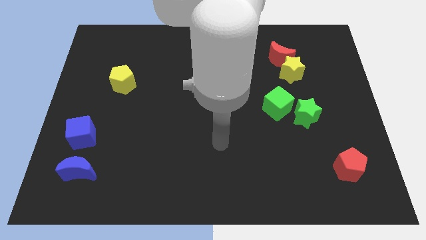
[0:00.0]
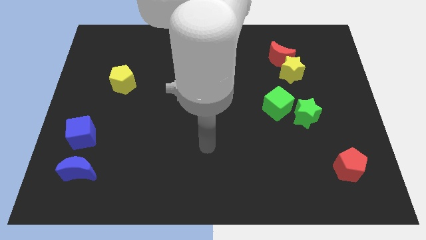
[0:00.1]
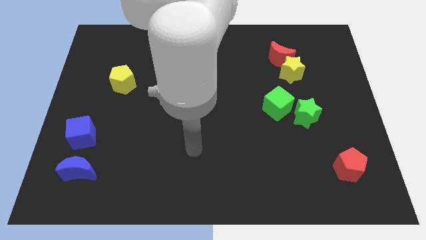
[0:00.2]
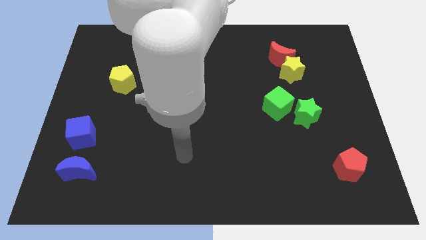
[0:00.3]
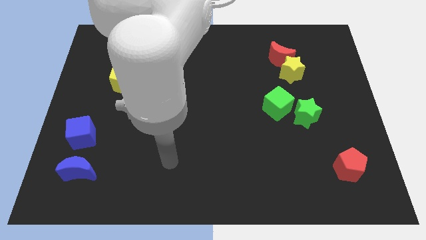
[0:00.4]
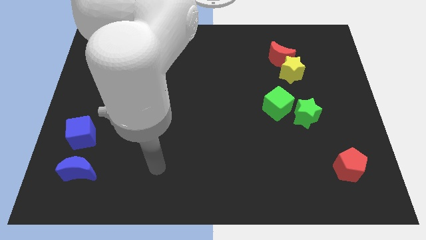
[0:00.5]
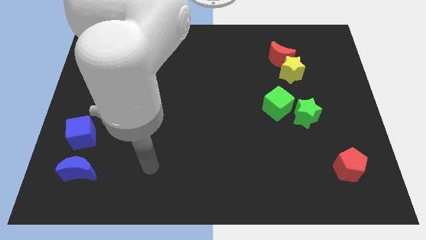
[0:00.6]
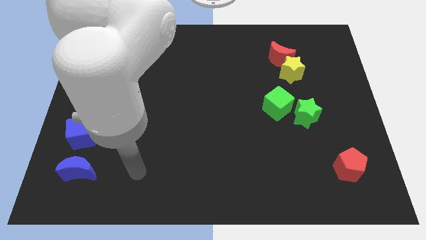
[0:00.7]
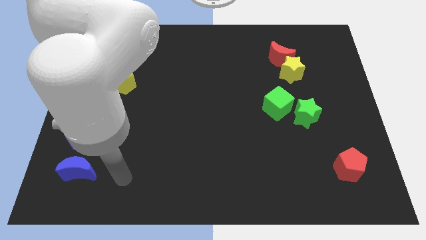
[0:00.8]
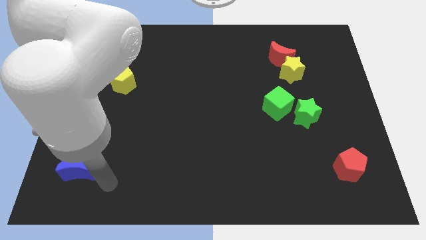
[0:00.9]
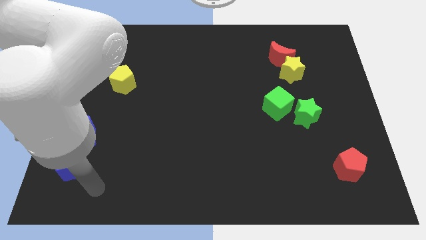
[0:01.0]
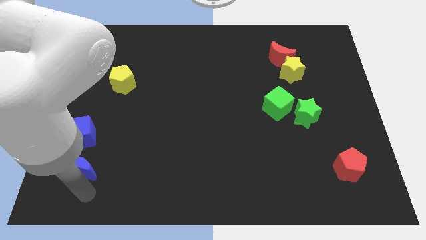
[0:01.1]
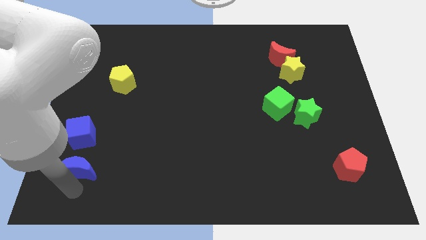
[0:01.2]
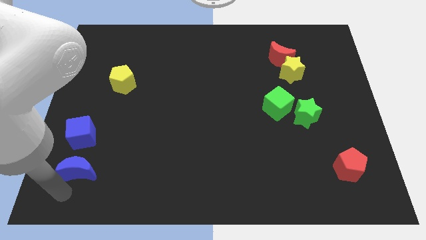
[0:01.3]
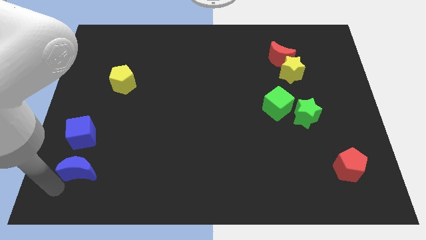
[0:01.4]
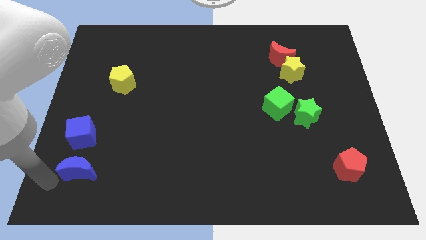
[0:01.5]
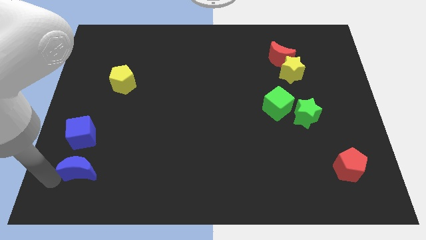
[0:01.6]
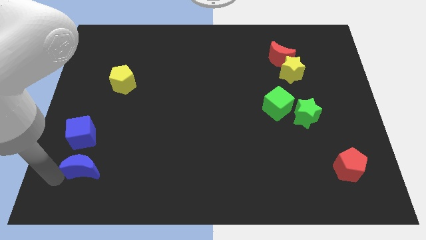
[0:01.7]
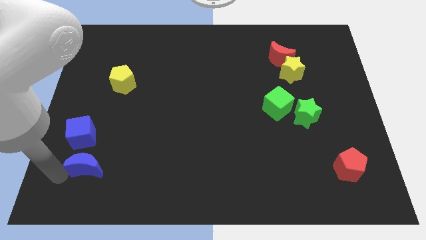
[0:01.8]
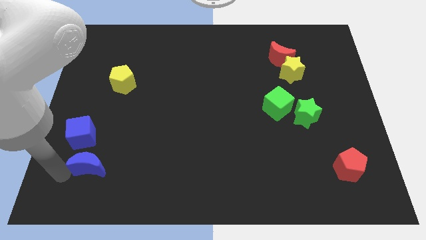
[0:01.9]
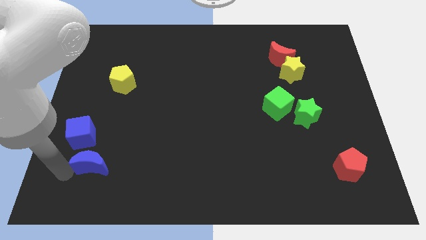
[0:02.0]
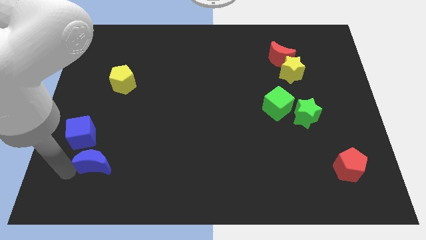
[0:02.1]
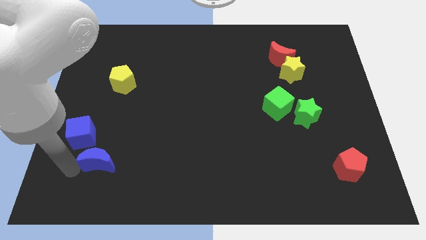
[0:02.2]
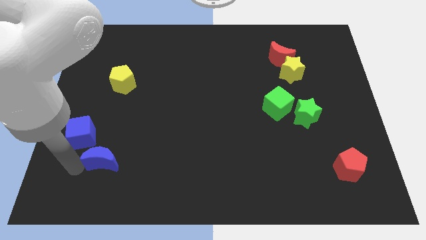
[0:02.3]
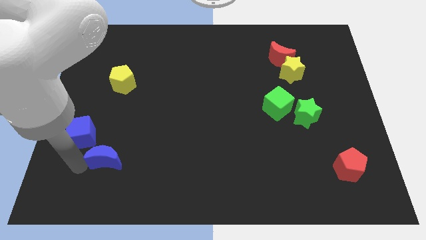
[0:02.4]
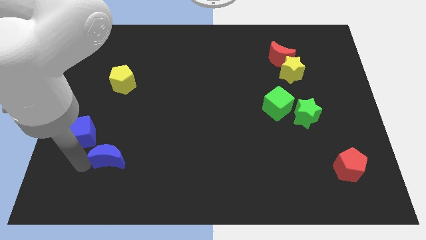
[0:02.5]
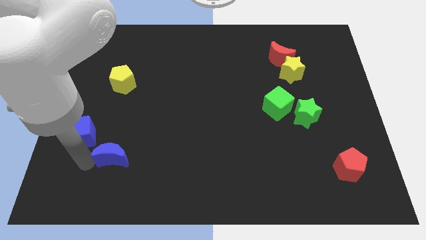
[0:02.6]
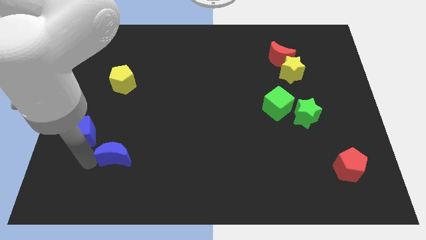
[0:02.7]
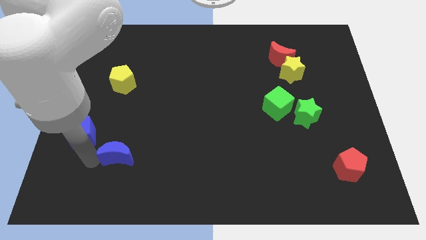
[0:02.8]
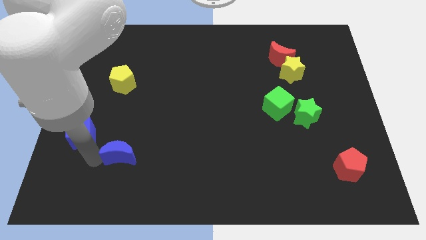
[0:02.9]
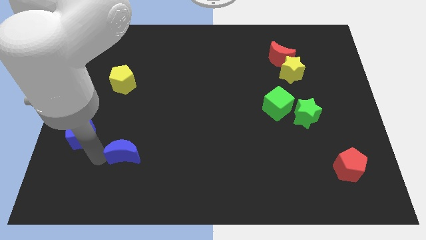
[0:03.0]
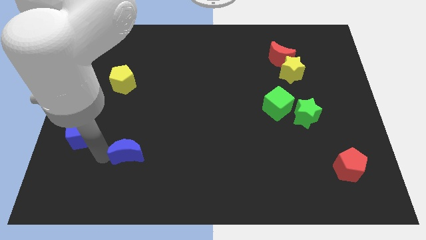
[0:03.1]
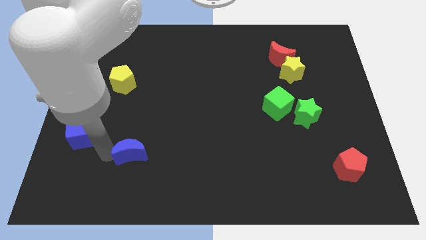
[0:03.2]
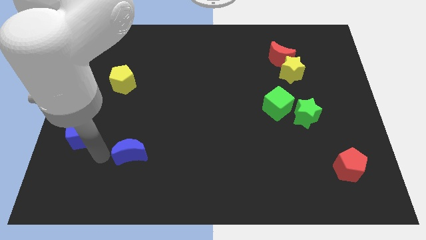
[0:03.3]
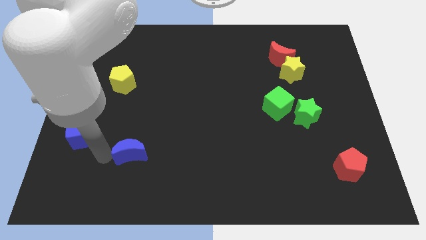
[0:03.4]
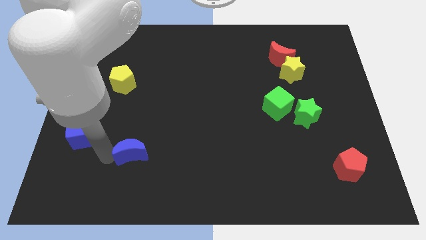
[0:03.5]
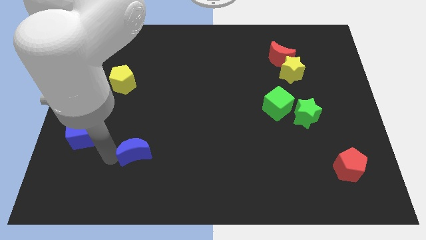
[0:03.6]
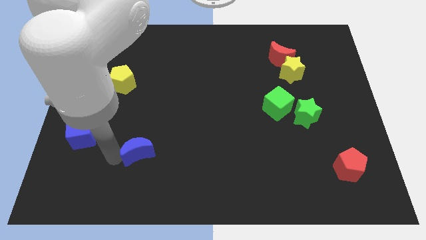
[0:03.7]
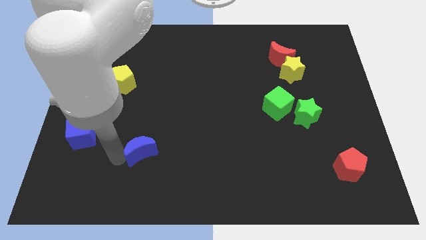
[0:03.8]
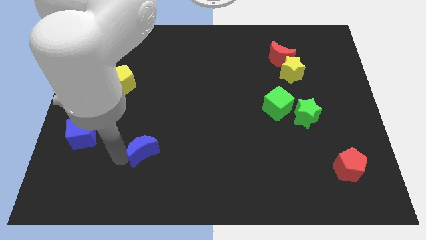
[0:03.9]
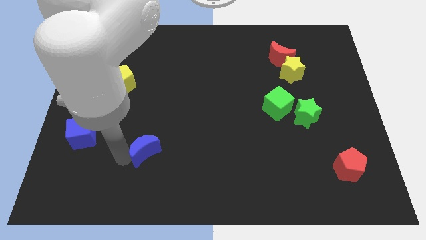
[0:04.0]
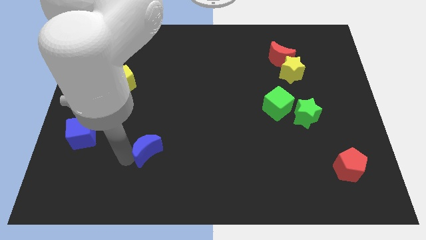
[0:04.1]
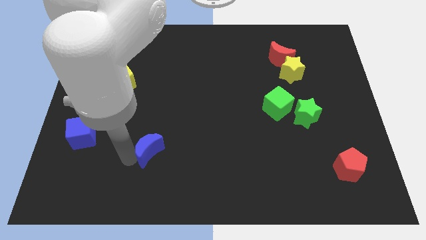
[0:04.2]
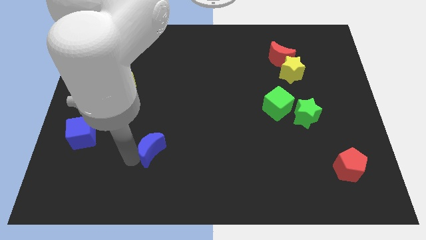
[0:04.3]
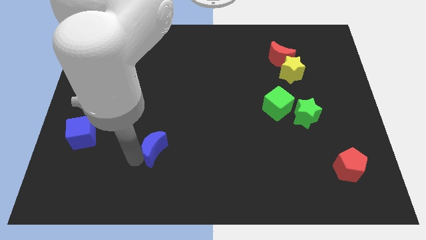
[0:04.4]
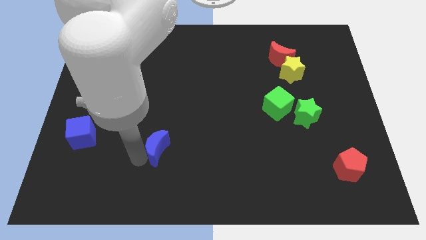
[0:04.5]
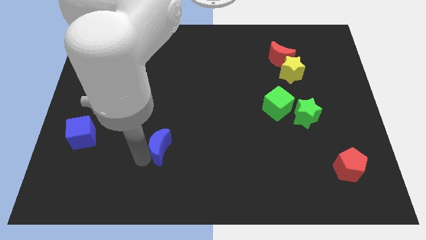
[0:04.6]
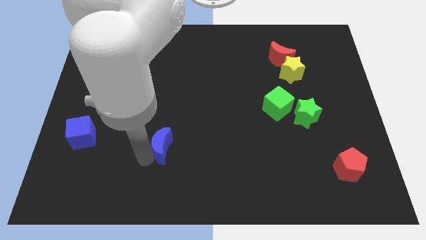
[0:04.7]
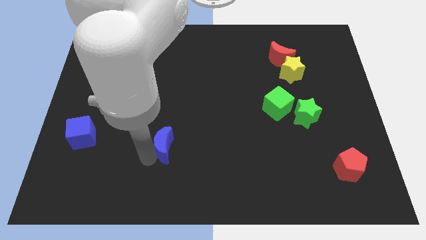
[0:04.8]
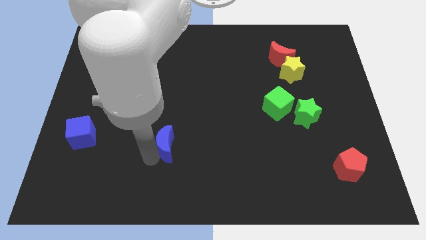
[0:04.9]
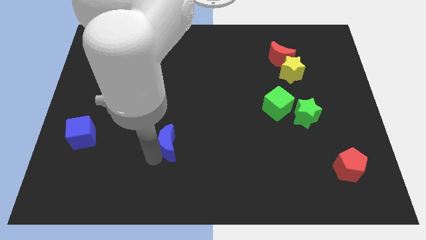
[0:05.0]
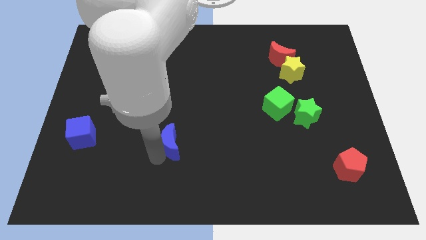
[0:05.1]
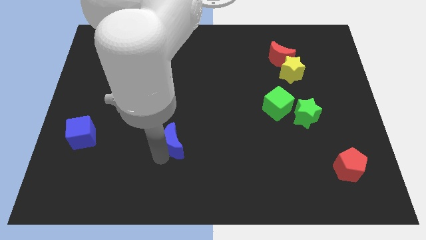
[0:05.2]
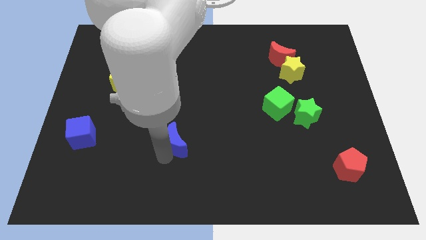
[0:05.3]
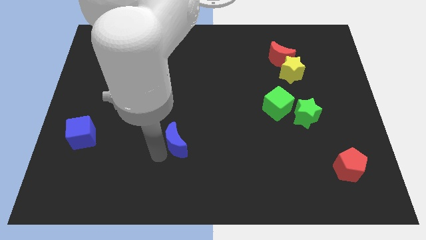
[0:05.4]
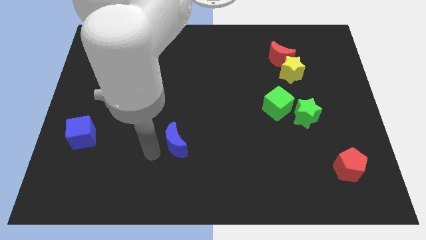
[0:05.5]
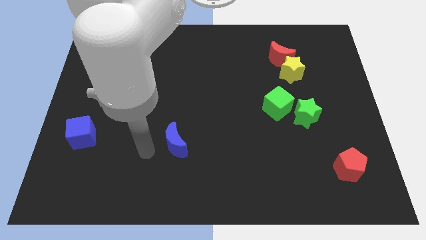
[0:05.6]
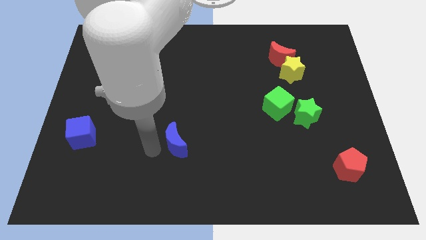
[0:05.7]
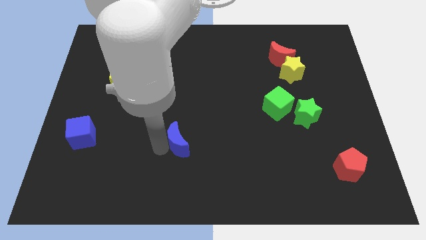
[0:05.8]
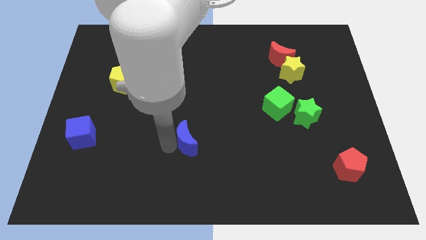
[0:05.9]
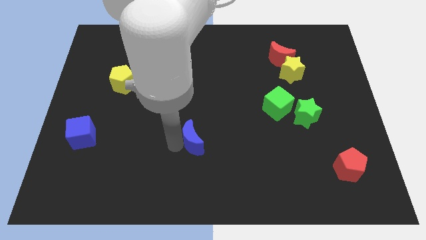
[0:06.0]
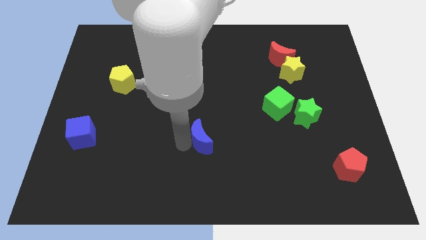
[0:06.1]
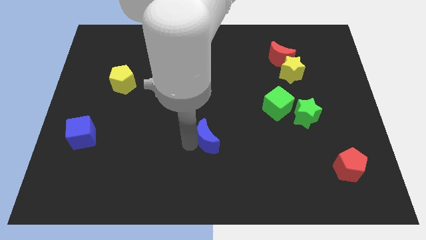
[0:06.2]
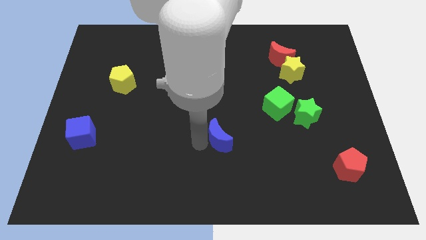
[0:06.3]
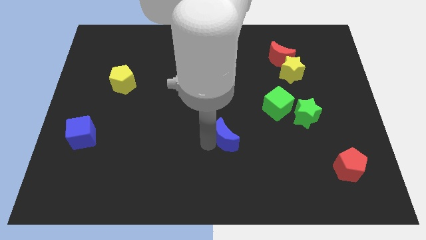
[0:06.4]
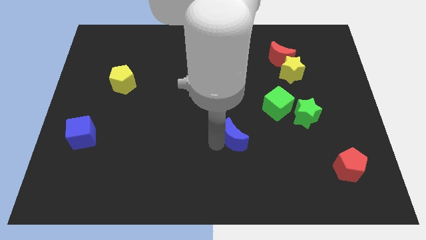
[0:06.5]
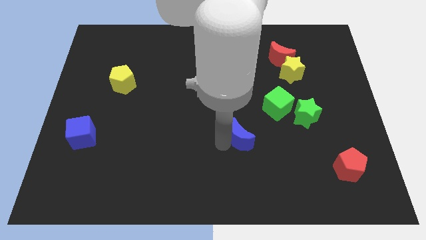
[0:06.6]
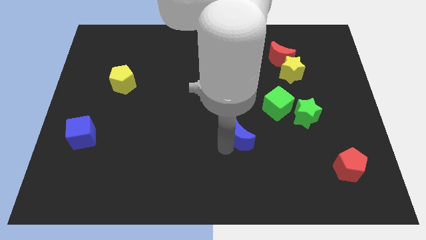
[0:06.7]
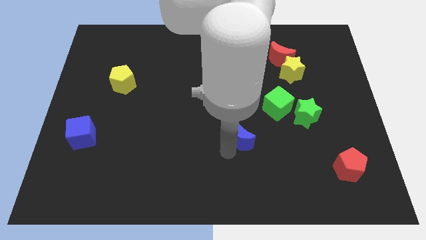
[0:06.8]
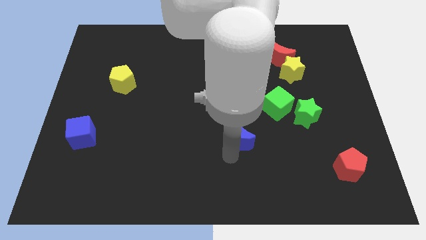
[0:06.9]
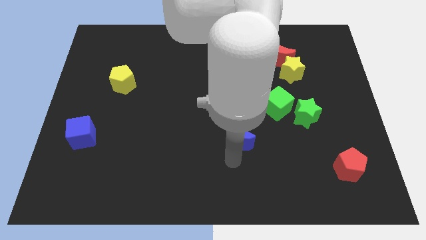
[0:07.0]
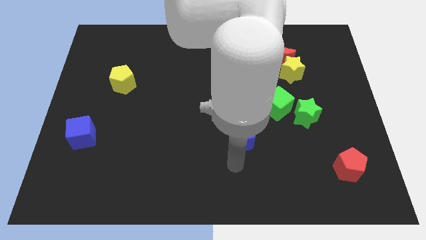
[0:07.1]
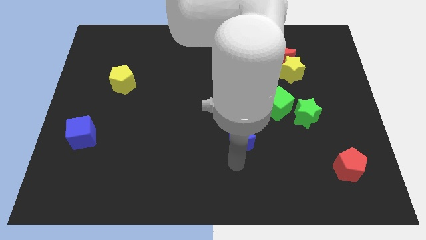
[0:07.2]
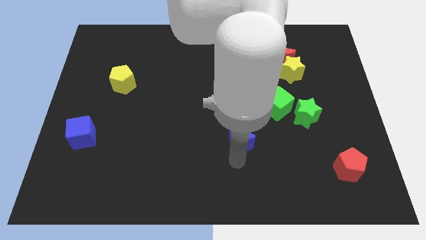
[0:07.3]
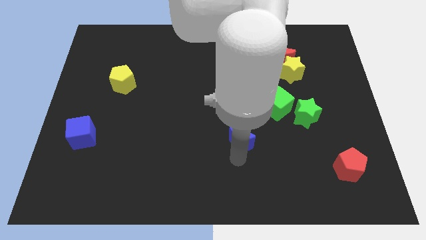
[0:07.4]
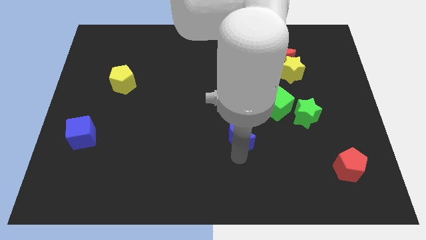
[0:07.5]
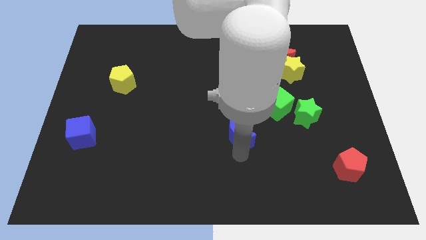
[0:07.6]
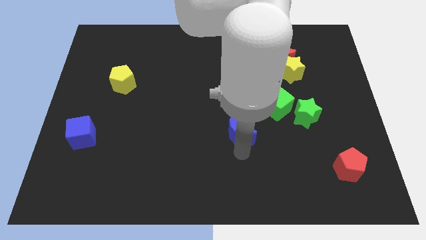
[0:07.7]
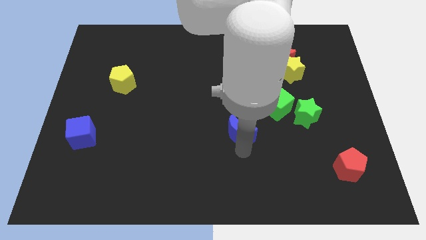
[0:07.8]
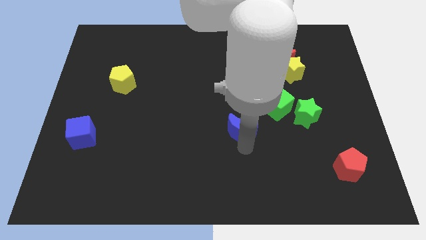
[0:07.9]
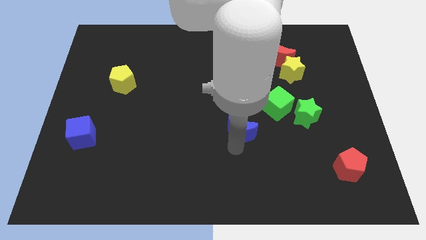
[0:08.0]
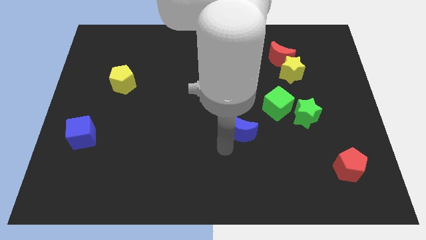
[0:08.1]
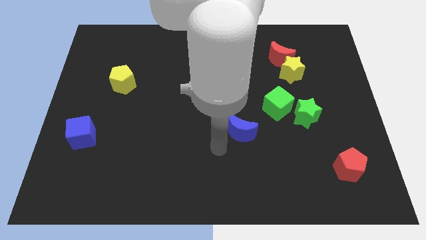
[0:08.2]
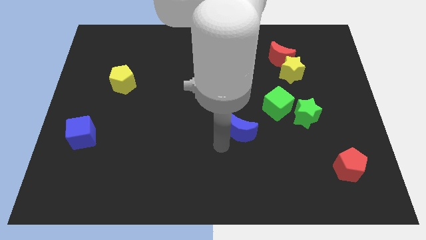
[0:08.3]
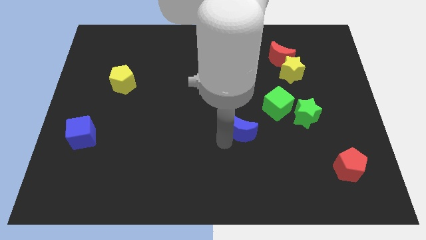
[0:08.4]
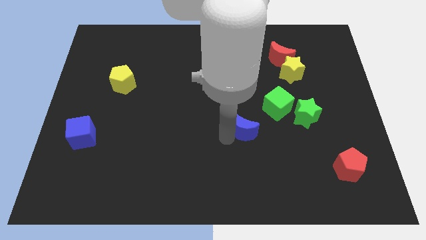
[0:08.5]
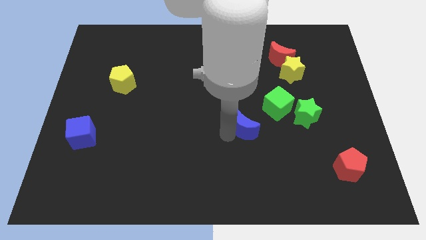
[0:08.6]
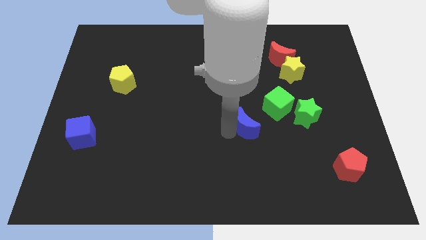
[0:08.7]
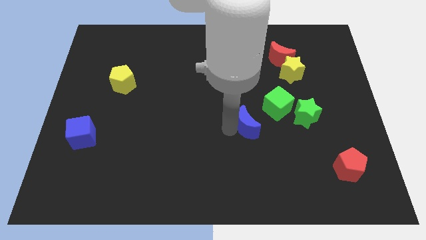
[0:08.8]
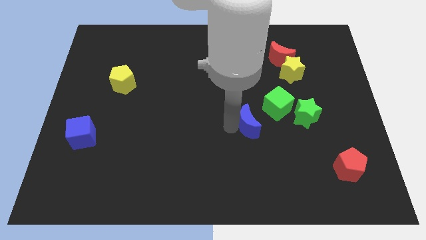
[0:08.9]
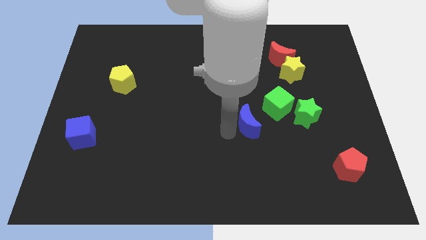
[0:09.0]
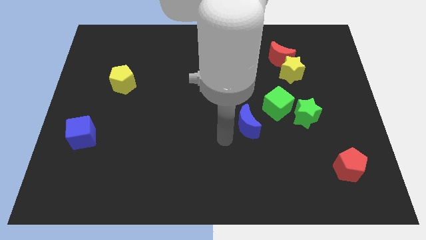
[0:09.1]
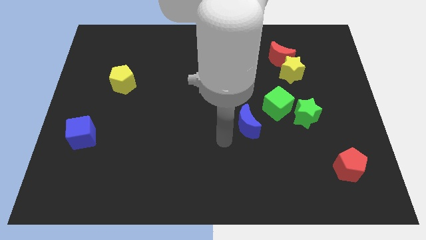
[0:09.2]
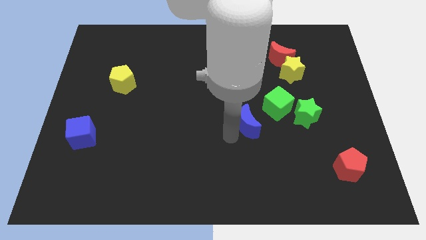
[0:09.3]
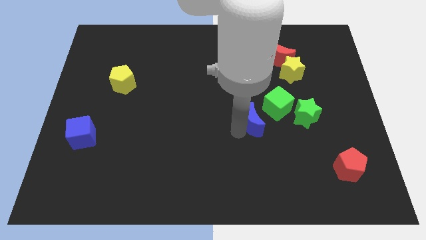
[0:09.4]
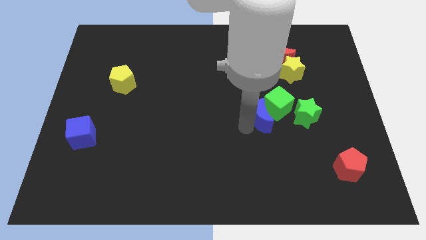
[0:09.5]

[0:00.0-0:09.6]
push the blue moon close to the green cube
